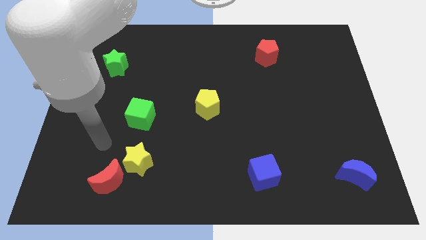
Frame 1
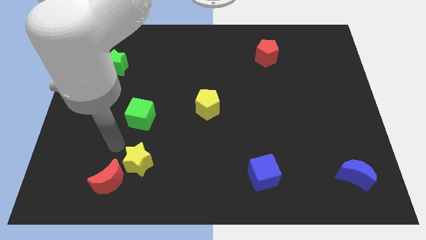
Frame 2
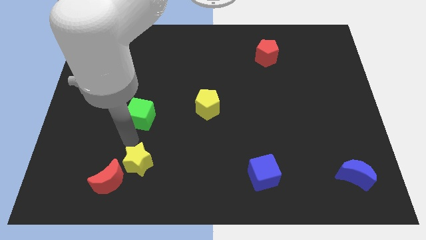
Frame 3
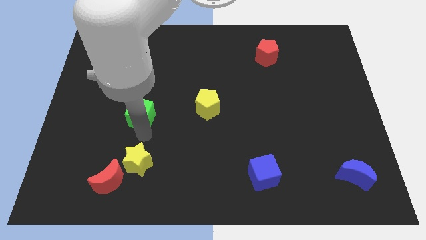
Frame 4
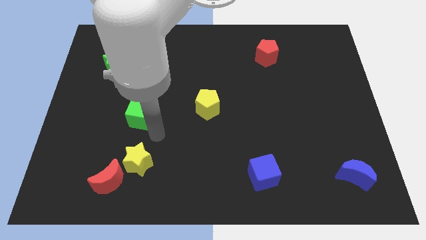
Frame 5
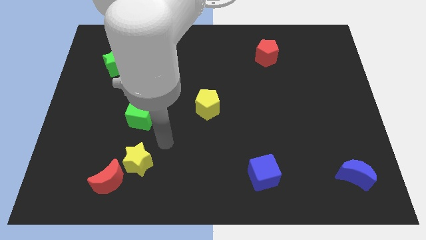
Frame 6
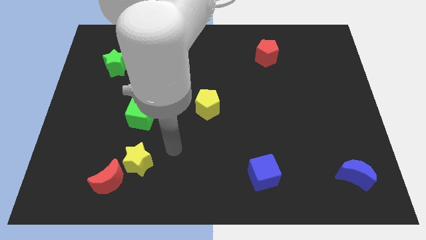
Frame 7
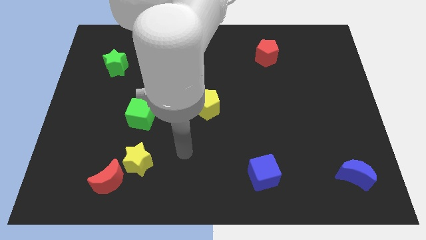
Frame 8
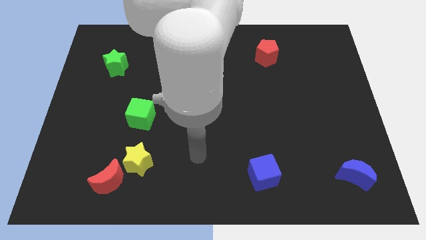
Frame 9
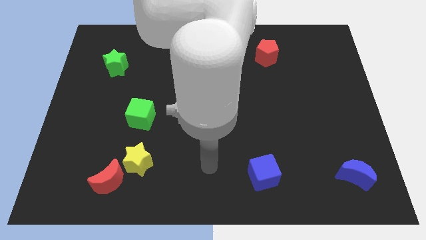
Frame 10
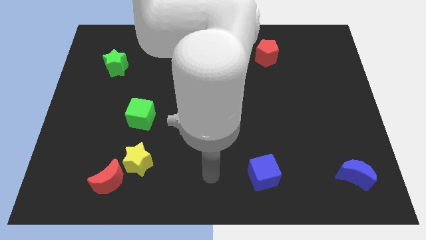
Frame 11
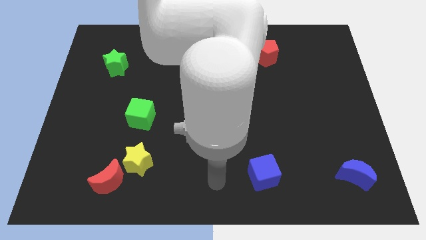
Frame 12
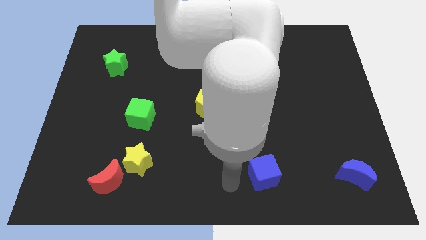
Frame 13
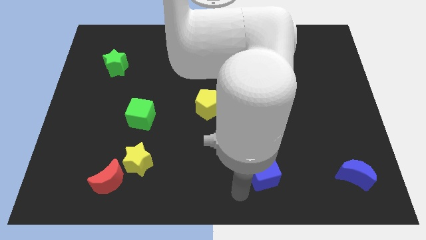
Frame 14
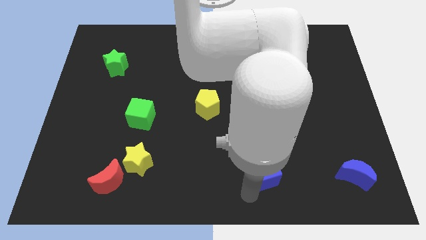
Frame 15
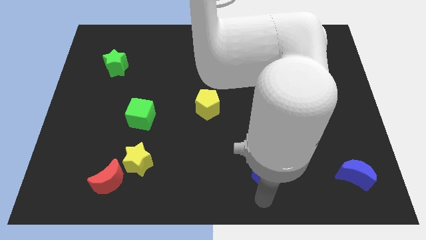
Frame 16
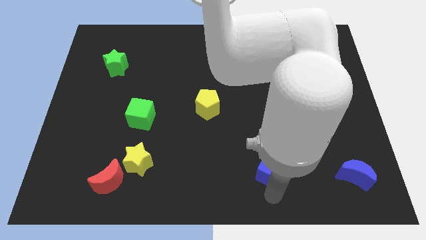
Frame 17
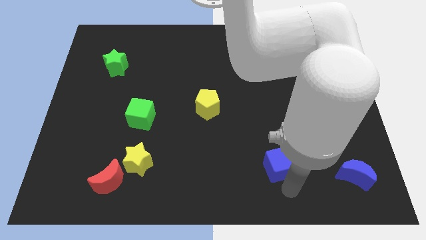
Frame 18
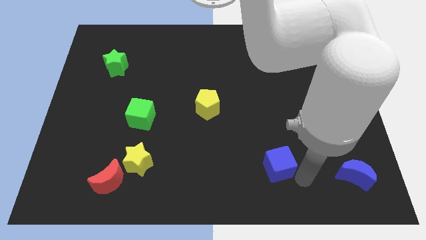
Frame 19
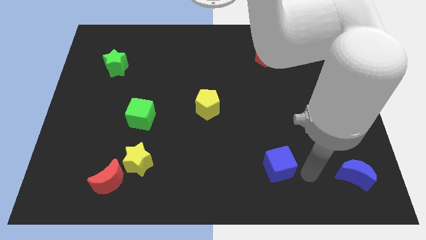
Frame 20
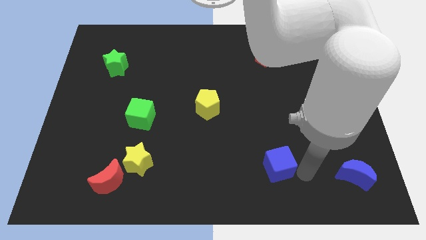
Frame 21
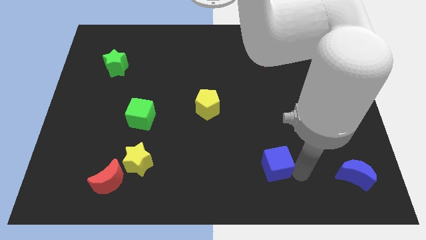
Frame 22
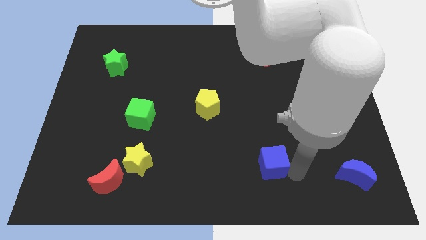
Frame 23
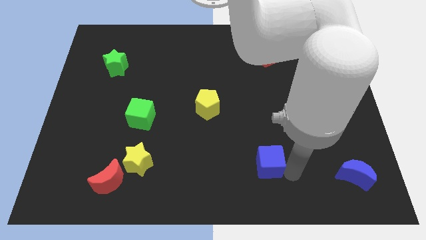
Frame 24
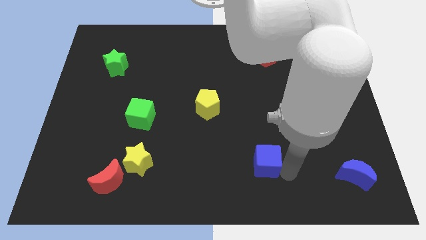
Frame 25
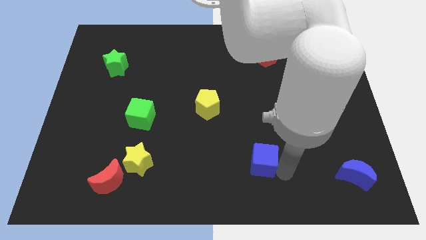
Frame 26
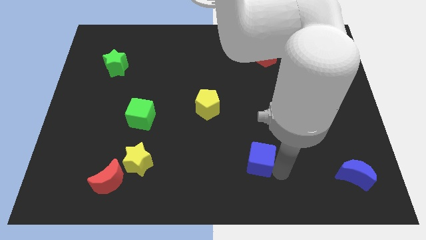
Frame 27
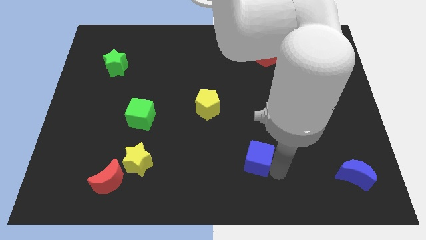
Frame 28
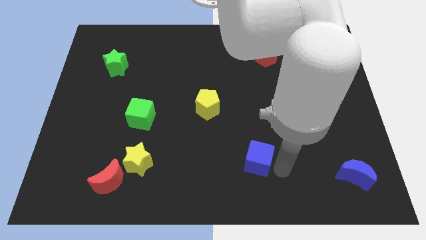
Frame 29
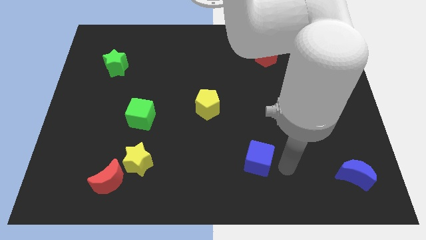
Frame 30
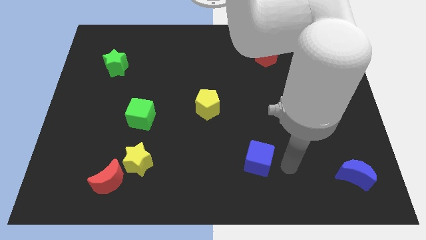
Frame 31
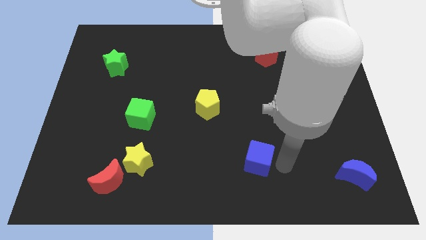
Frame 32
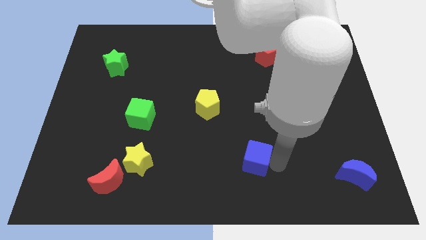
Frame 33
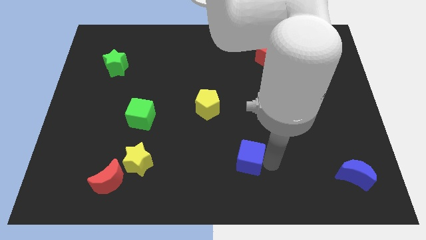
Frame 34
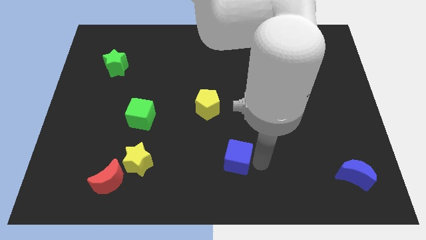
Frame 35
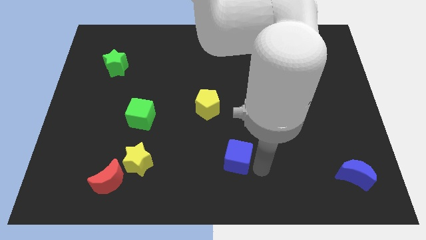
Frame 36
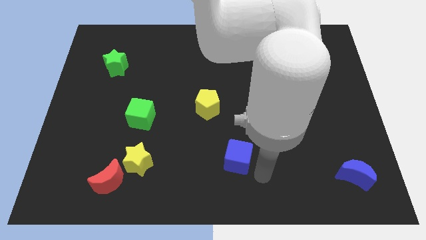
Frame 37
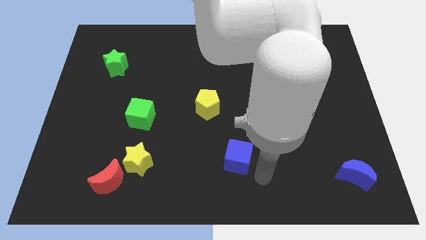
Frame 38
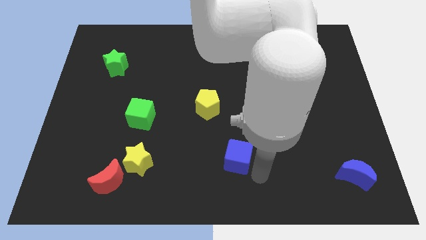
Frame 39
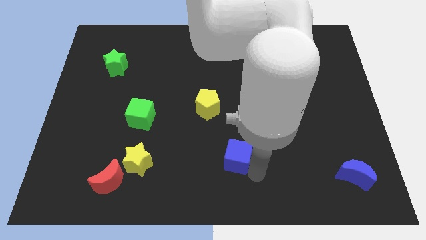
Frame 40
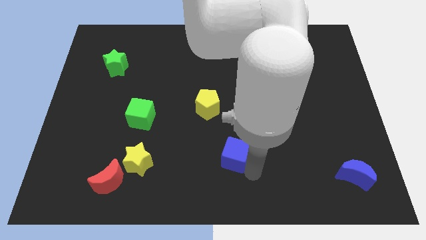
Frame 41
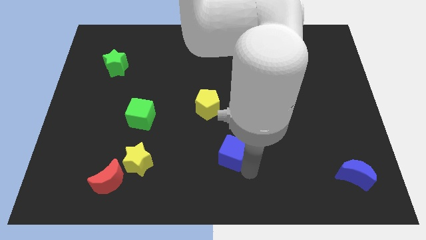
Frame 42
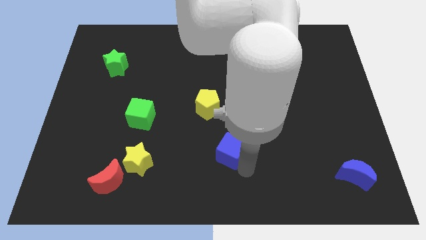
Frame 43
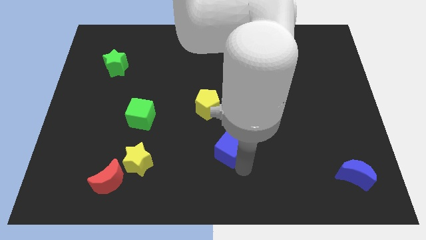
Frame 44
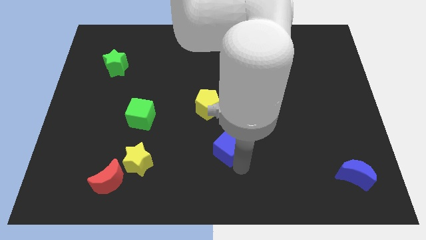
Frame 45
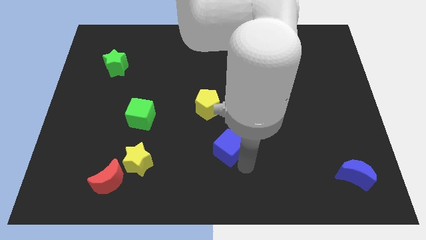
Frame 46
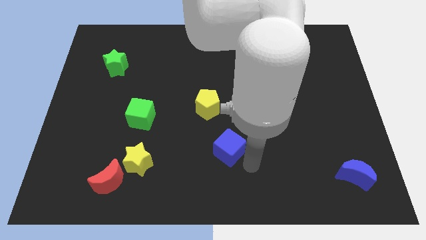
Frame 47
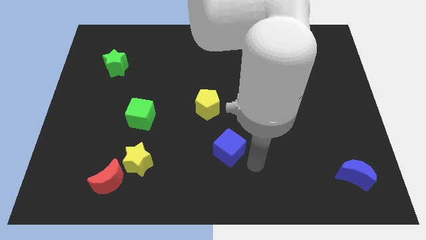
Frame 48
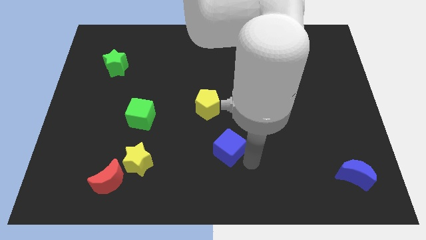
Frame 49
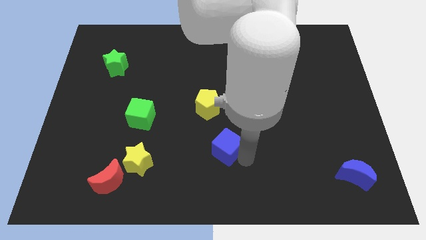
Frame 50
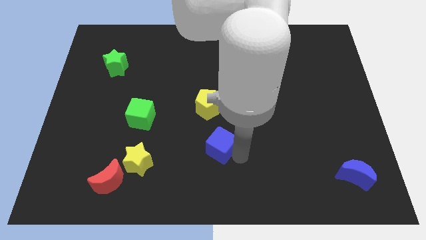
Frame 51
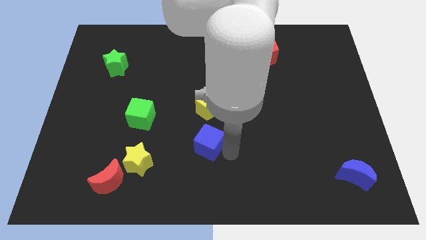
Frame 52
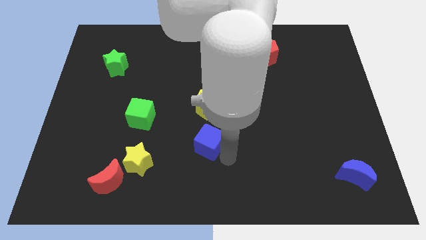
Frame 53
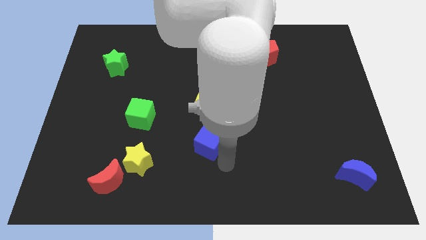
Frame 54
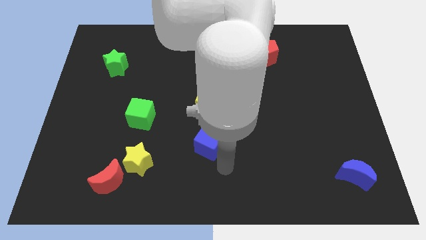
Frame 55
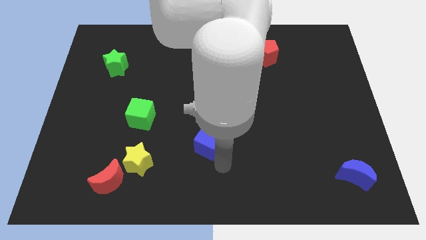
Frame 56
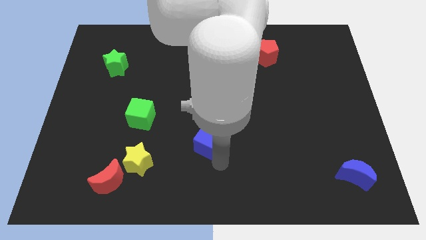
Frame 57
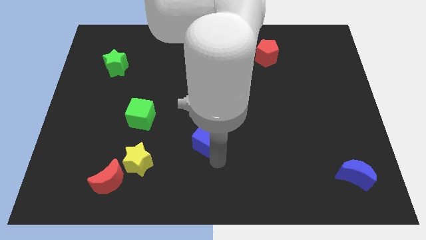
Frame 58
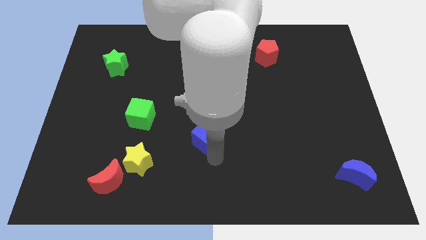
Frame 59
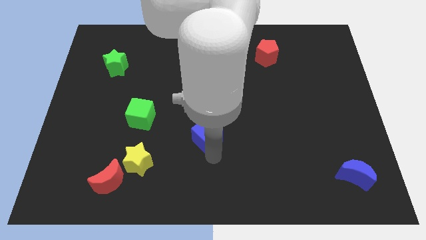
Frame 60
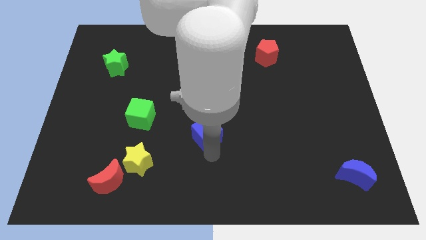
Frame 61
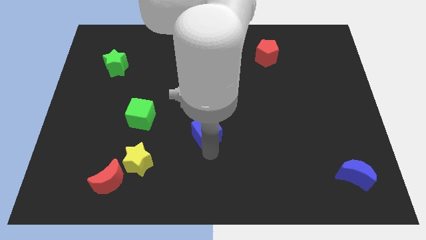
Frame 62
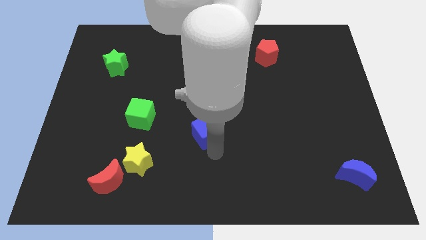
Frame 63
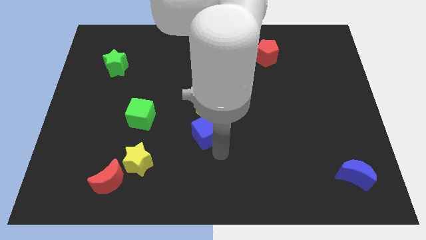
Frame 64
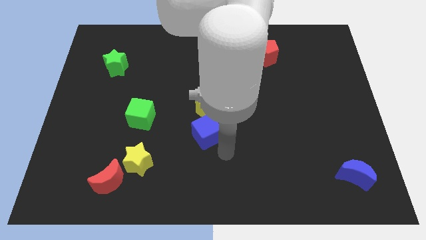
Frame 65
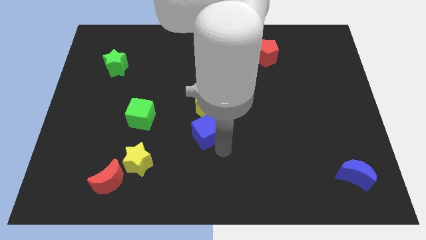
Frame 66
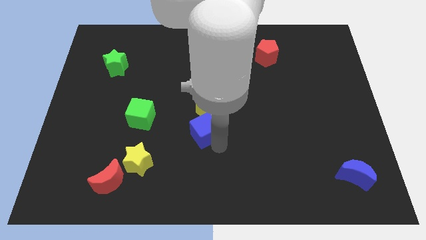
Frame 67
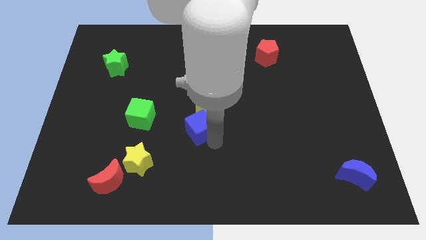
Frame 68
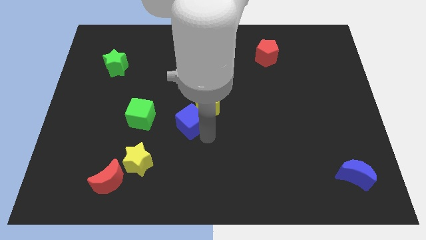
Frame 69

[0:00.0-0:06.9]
slide the blue cube up and left diagonally

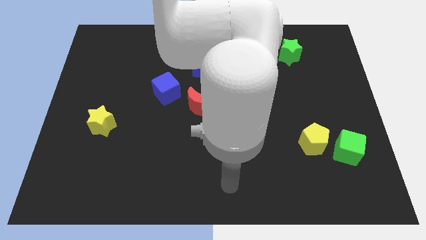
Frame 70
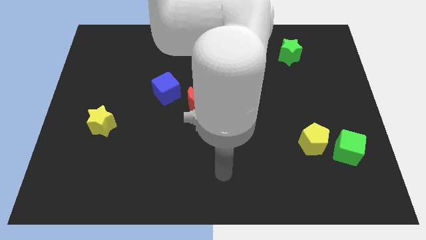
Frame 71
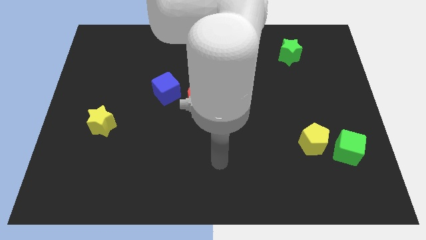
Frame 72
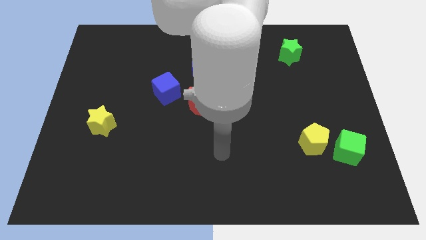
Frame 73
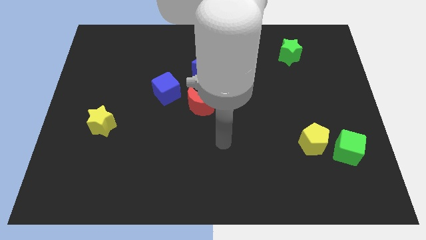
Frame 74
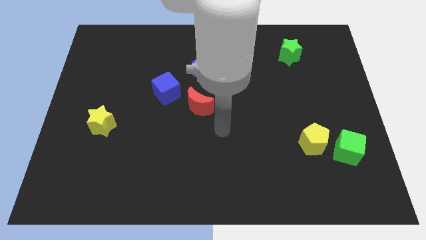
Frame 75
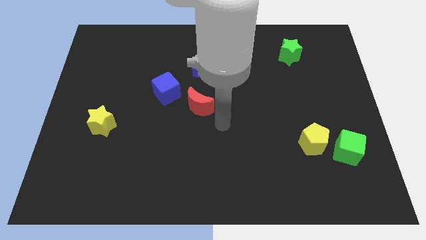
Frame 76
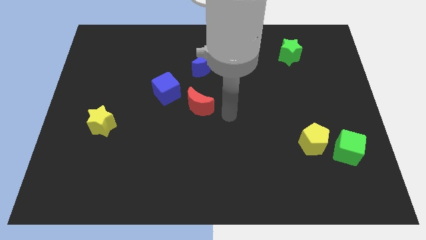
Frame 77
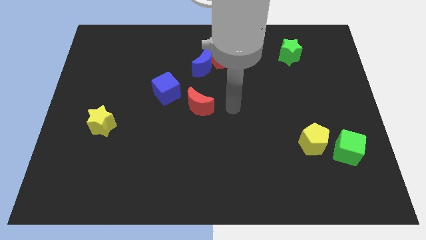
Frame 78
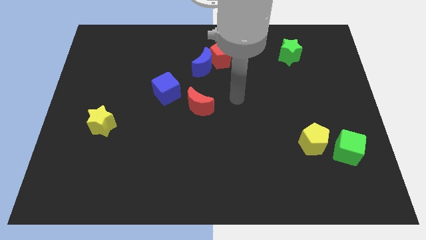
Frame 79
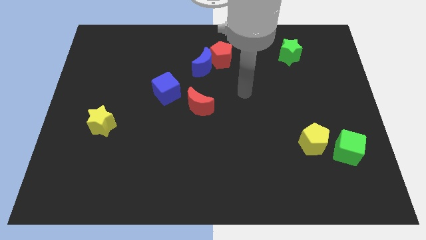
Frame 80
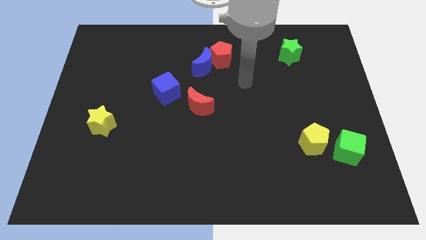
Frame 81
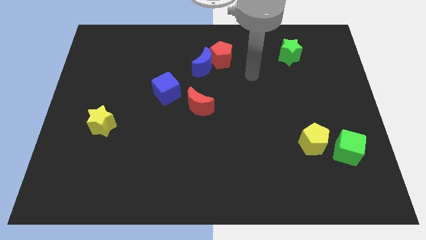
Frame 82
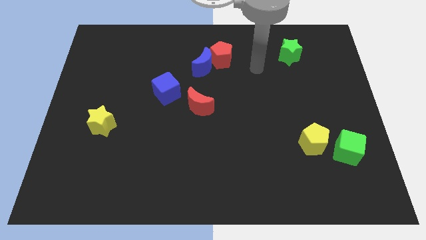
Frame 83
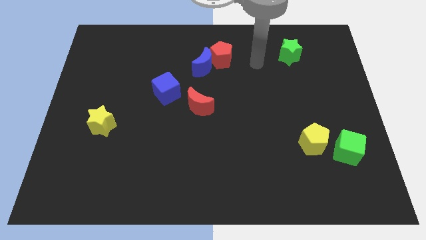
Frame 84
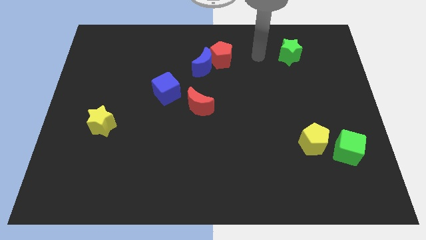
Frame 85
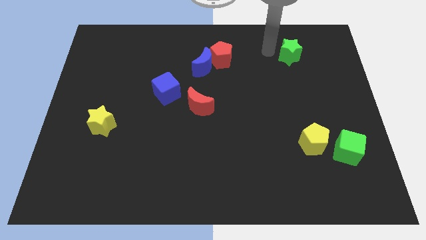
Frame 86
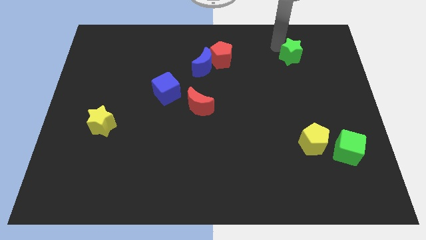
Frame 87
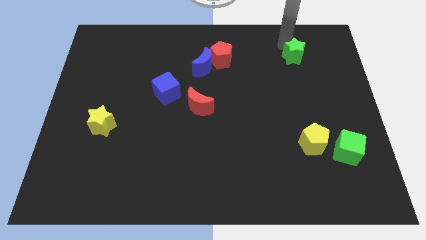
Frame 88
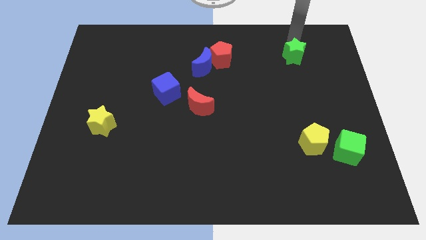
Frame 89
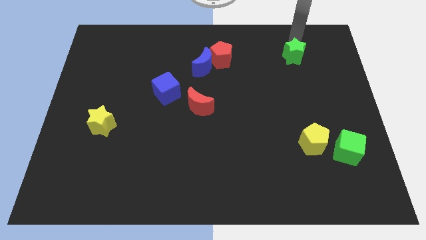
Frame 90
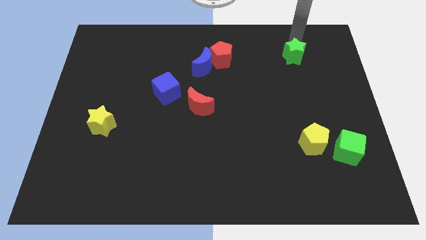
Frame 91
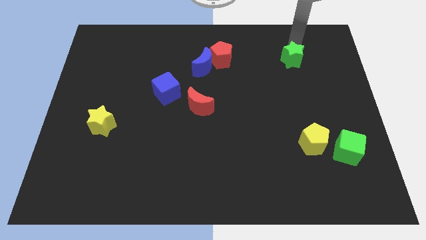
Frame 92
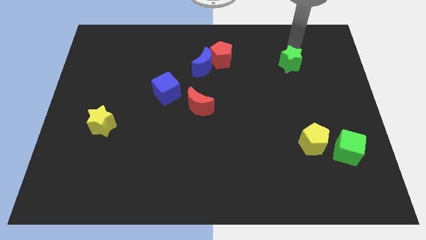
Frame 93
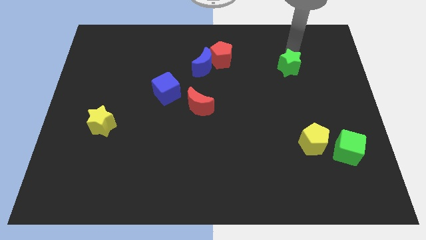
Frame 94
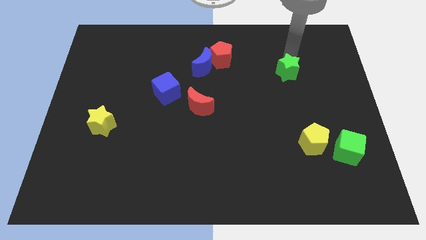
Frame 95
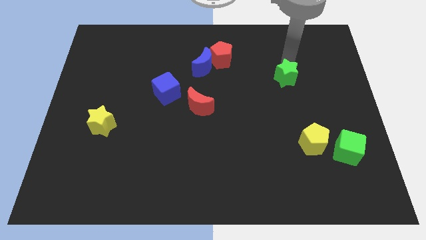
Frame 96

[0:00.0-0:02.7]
move the green star slightly down
